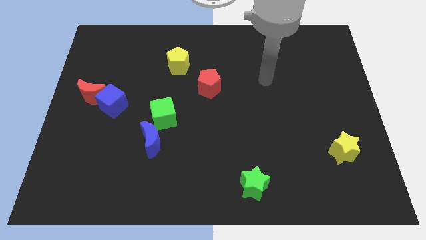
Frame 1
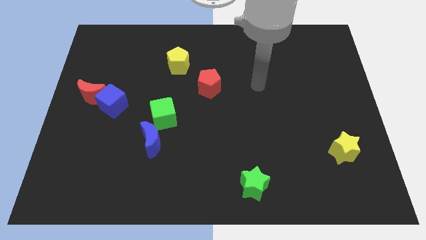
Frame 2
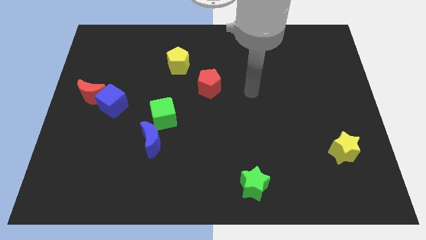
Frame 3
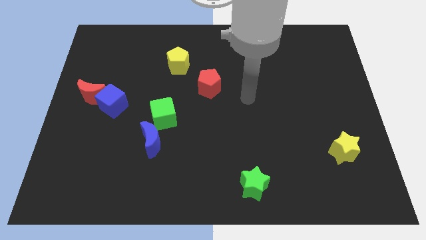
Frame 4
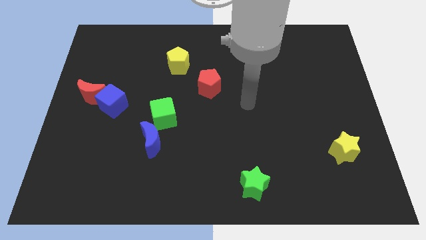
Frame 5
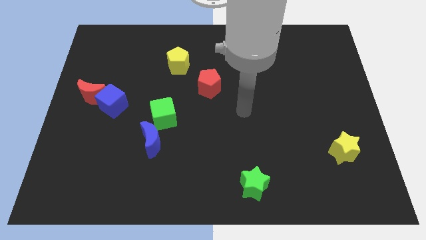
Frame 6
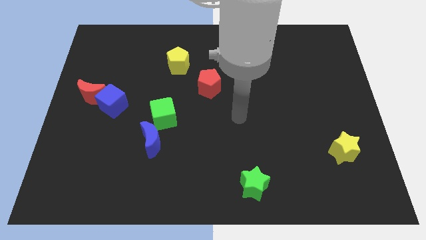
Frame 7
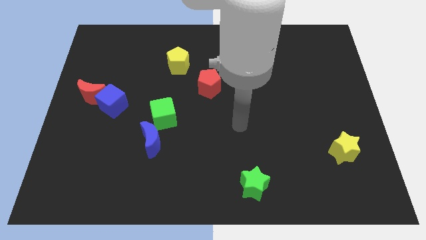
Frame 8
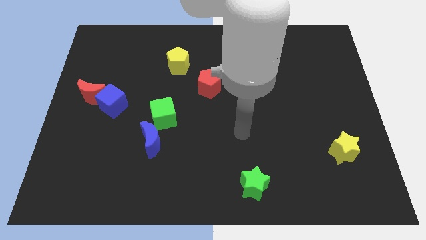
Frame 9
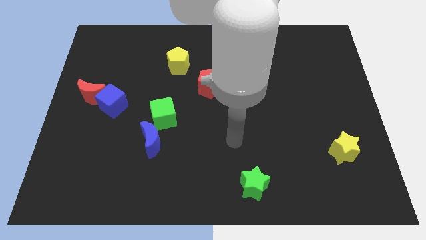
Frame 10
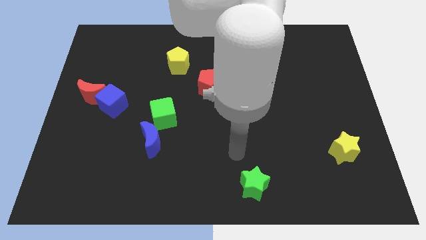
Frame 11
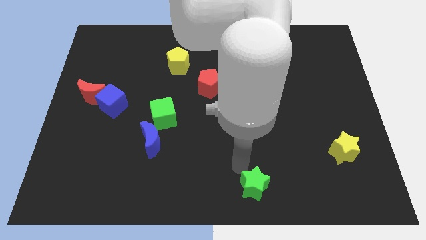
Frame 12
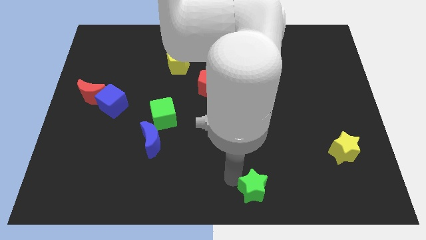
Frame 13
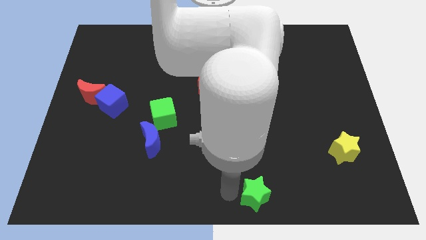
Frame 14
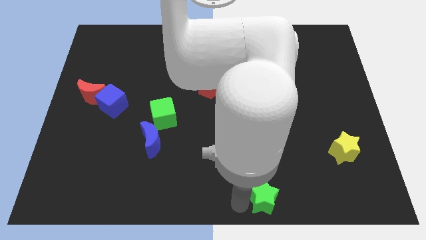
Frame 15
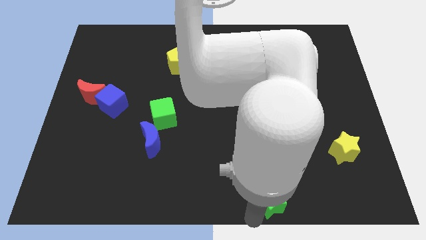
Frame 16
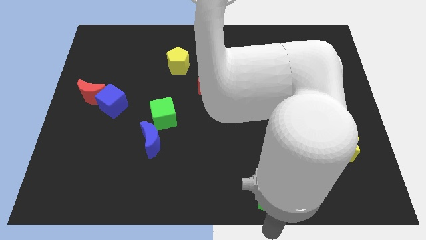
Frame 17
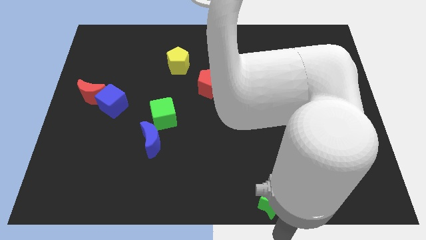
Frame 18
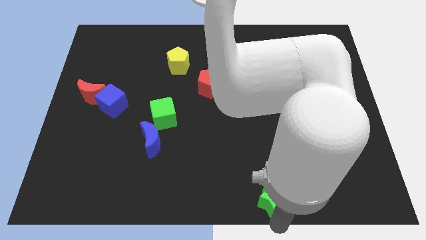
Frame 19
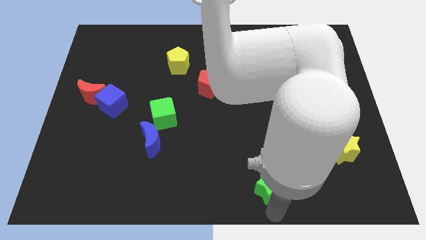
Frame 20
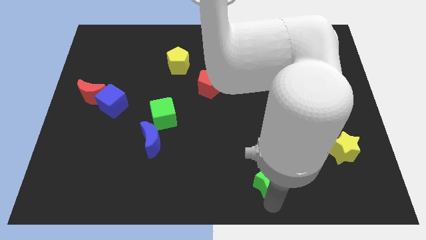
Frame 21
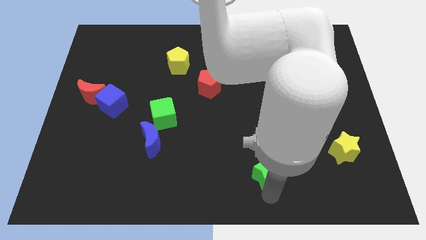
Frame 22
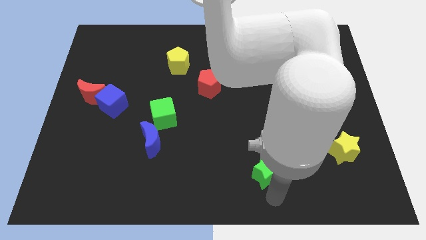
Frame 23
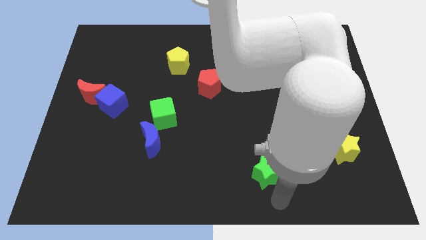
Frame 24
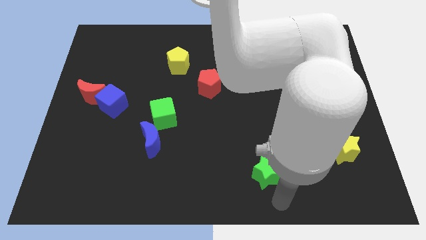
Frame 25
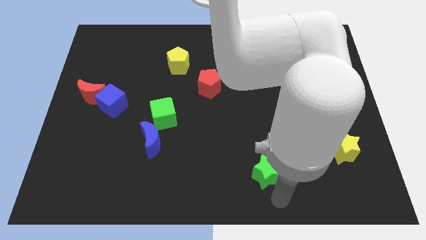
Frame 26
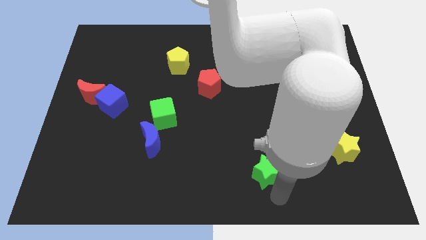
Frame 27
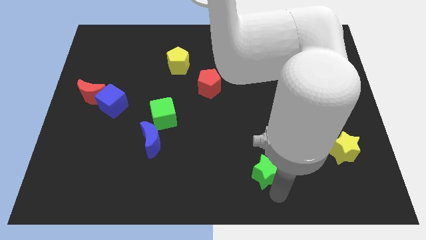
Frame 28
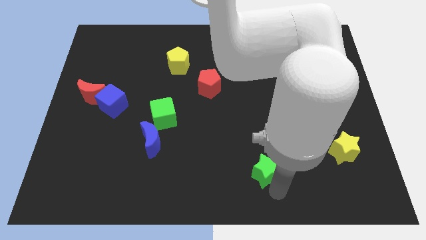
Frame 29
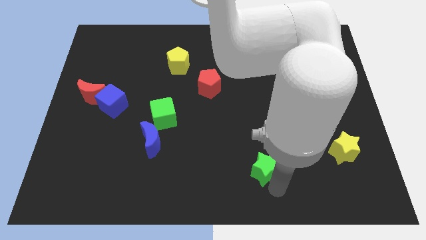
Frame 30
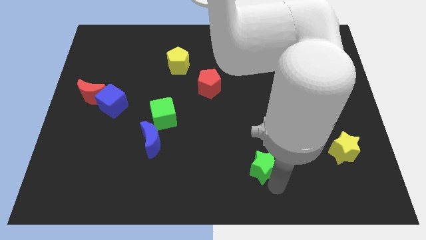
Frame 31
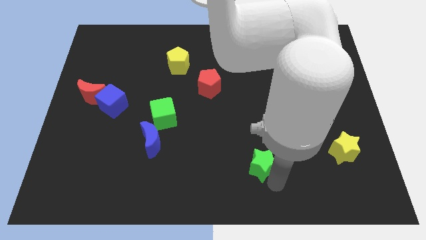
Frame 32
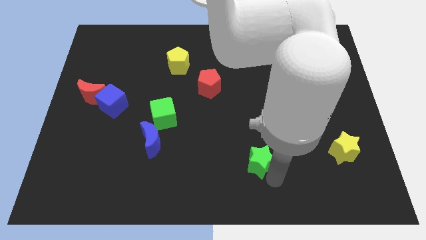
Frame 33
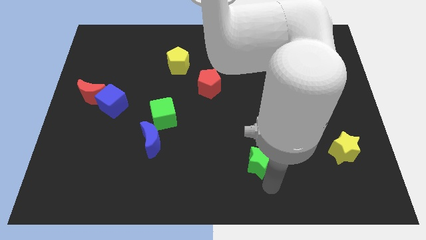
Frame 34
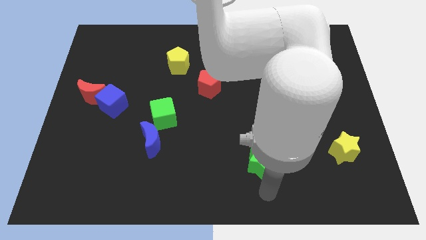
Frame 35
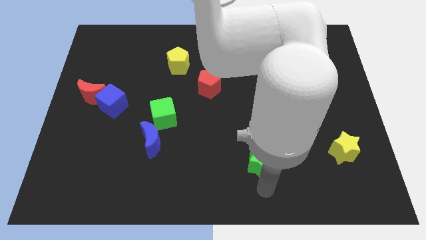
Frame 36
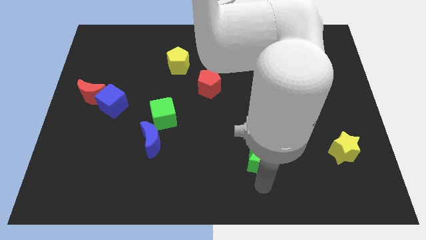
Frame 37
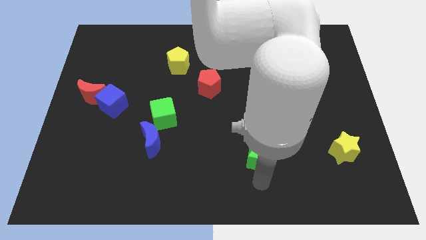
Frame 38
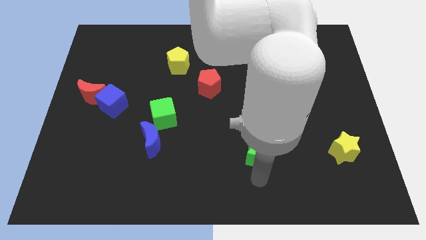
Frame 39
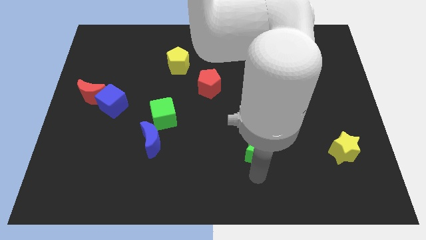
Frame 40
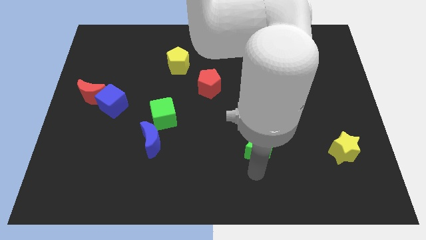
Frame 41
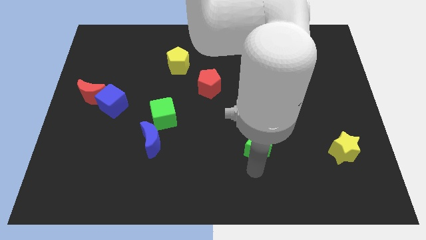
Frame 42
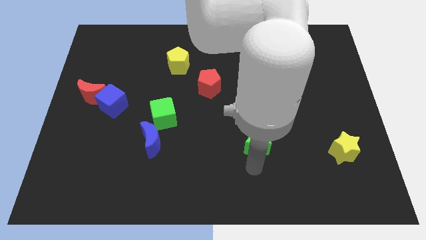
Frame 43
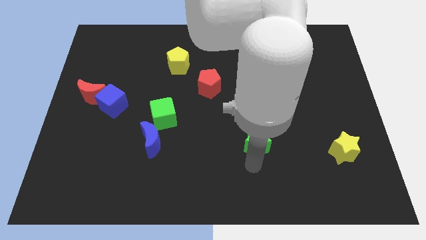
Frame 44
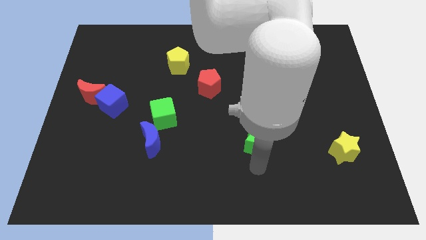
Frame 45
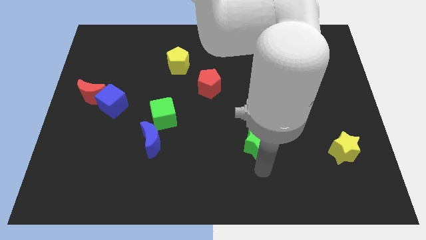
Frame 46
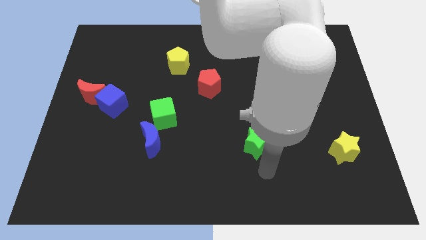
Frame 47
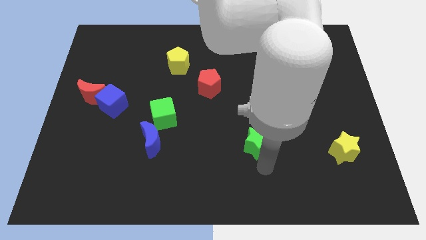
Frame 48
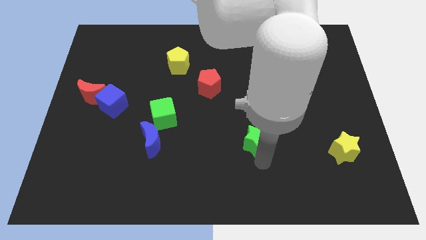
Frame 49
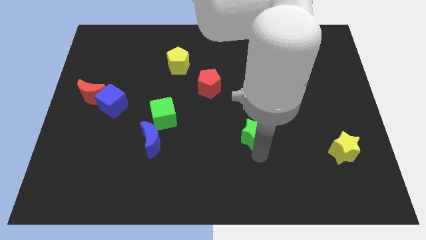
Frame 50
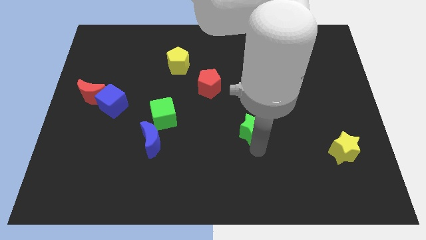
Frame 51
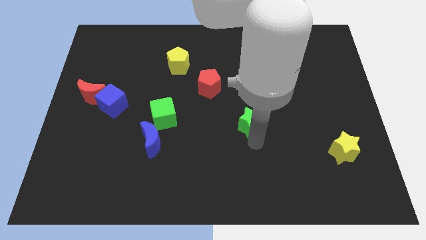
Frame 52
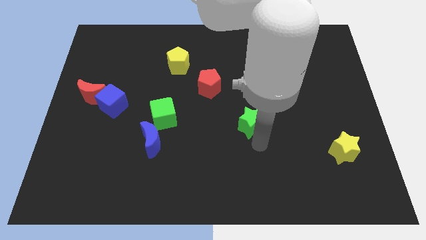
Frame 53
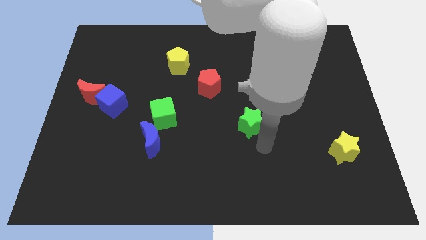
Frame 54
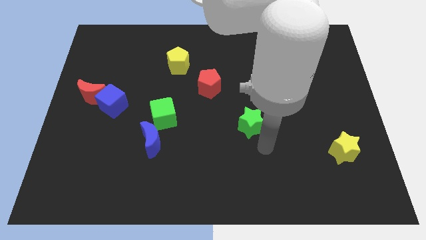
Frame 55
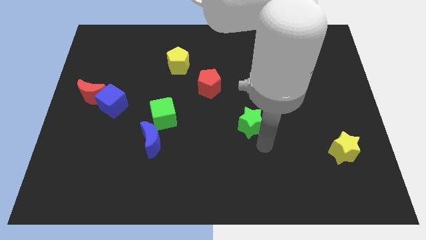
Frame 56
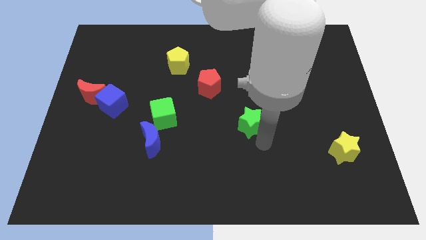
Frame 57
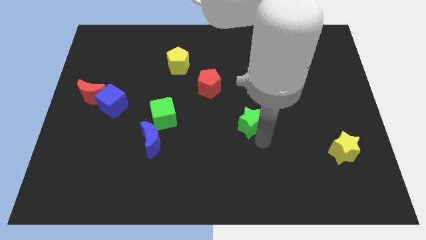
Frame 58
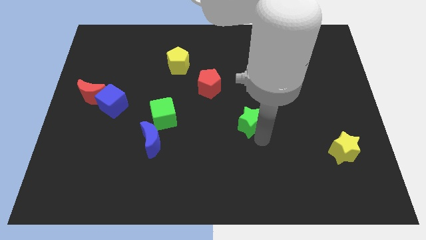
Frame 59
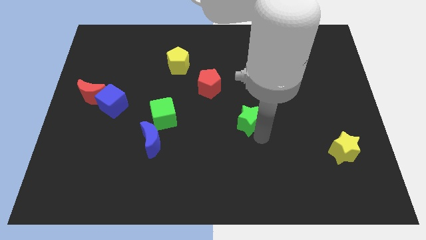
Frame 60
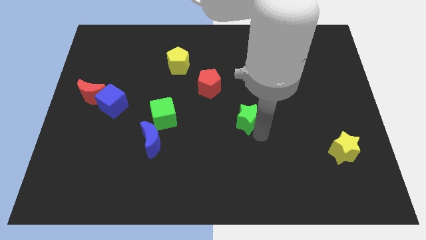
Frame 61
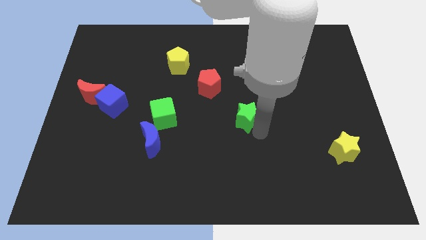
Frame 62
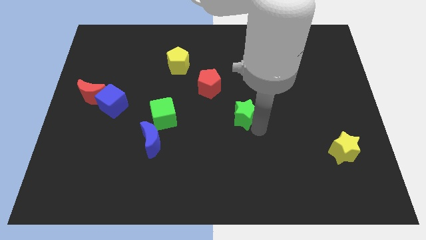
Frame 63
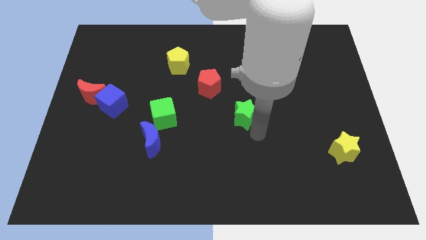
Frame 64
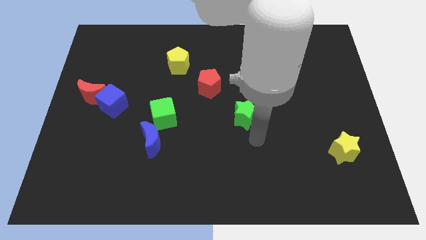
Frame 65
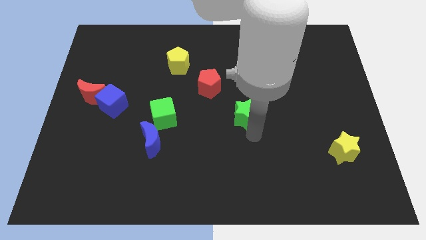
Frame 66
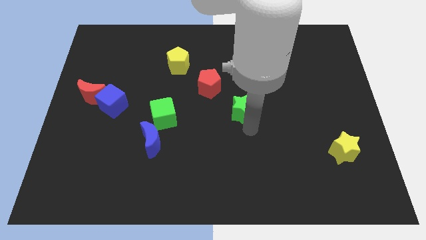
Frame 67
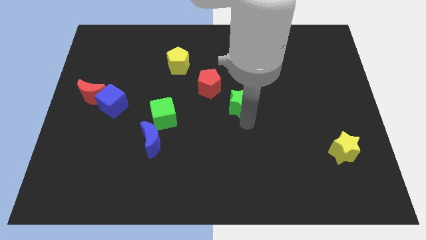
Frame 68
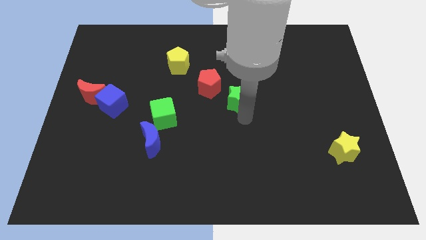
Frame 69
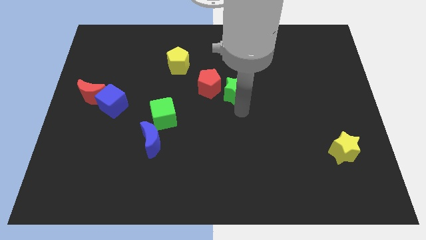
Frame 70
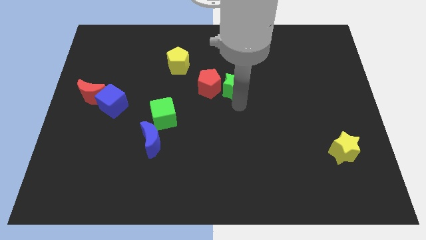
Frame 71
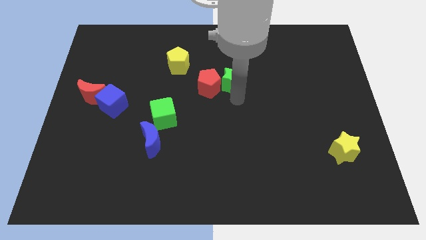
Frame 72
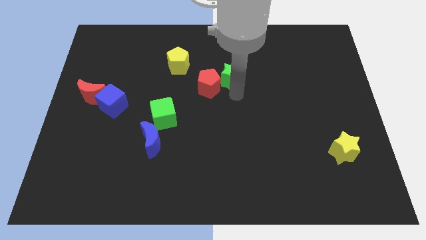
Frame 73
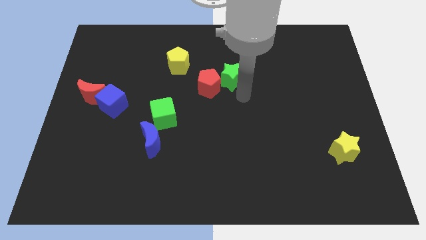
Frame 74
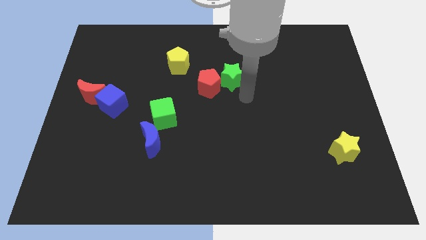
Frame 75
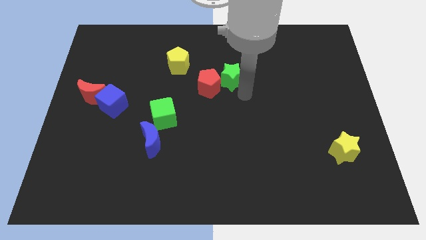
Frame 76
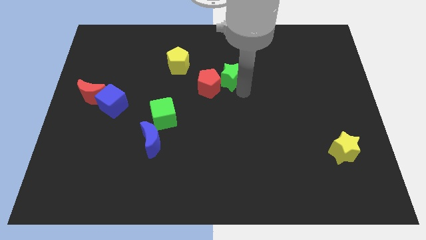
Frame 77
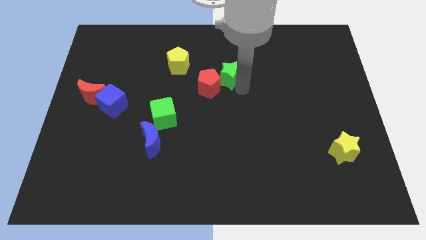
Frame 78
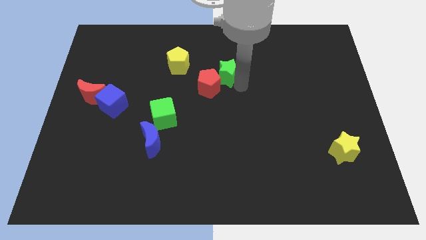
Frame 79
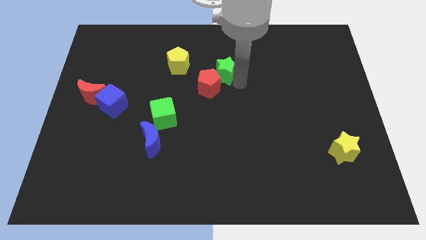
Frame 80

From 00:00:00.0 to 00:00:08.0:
move the green star to the top of the red pentagon
